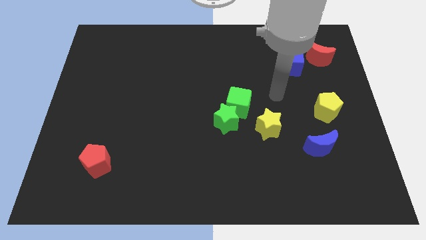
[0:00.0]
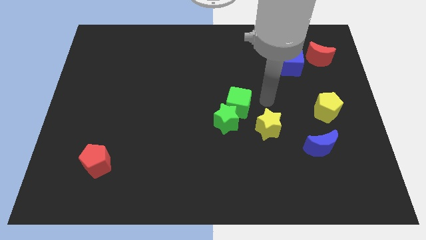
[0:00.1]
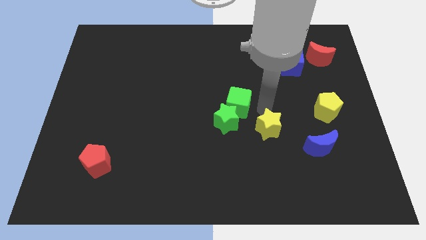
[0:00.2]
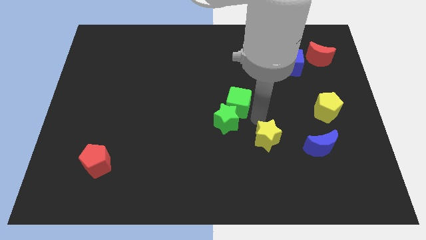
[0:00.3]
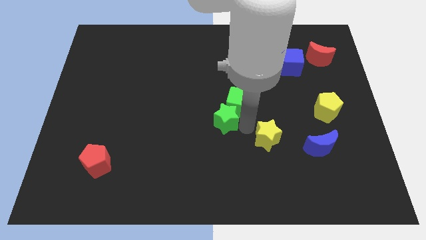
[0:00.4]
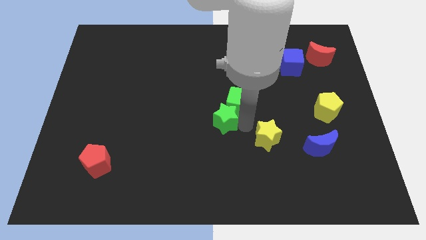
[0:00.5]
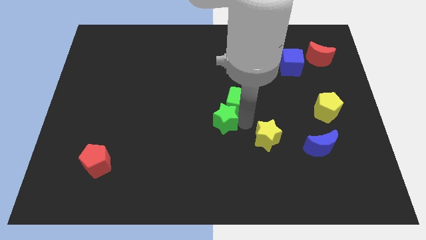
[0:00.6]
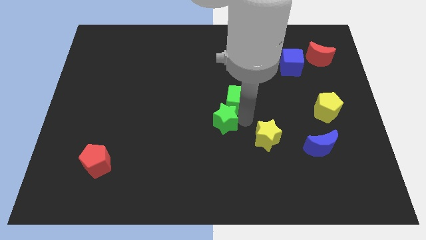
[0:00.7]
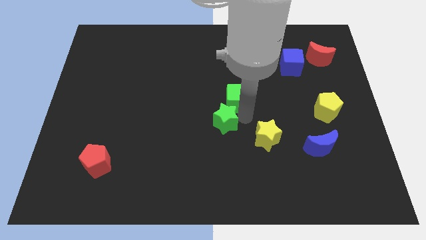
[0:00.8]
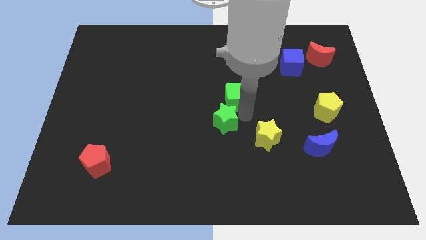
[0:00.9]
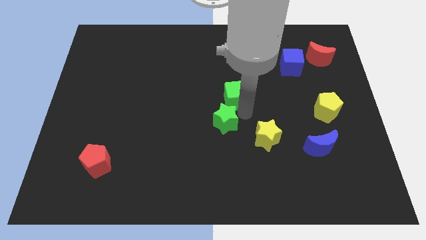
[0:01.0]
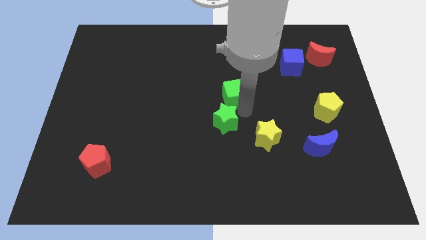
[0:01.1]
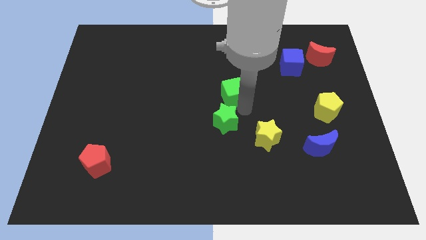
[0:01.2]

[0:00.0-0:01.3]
pull the green cube apart from the green star and yellow star

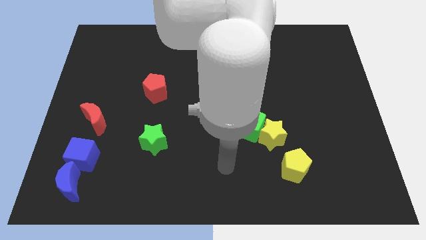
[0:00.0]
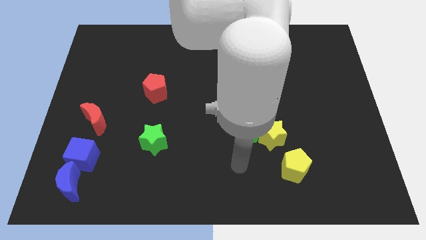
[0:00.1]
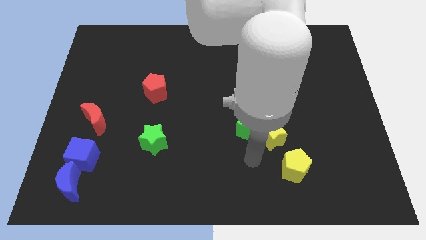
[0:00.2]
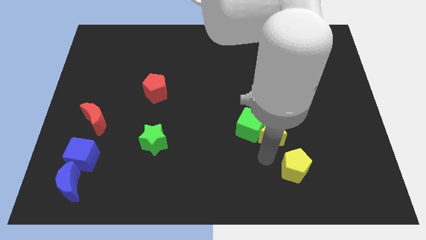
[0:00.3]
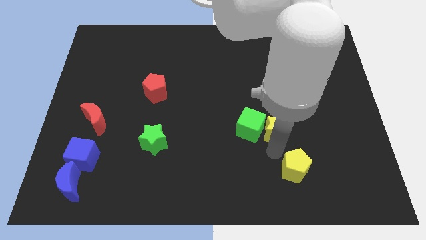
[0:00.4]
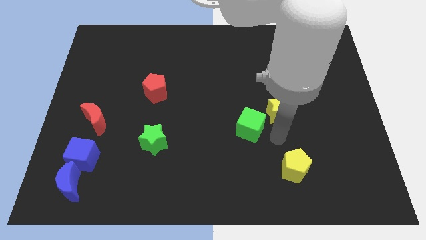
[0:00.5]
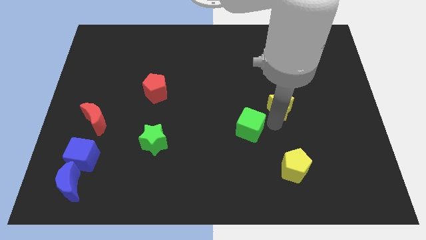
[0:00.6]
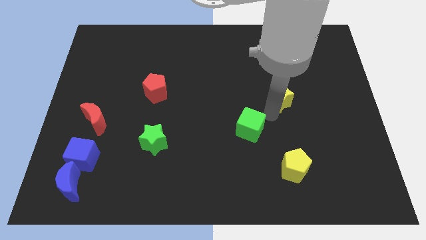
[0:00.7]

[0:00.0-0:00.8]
separate the green cube from the yellow star

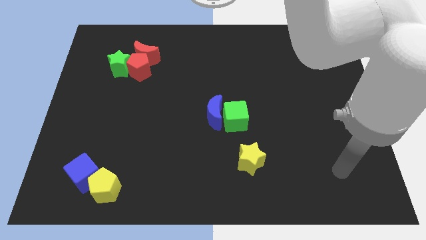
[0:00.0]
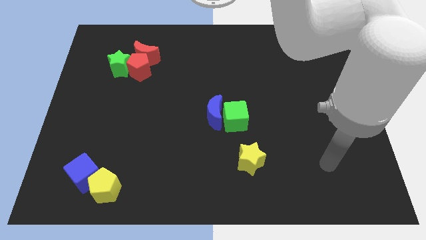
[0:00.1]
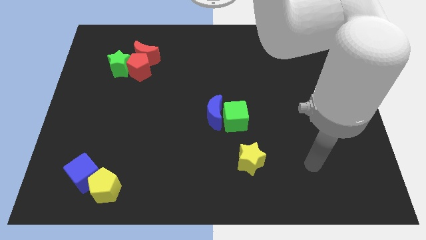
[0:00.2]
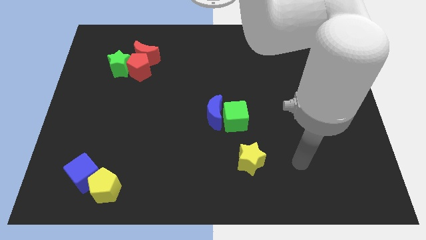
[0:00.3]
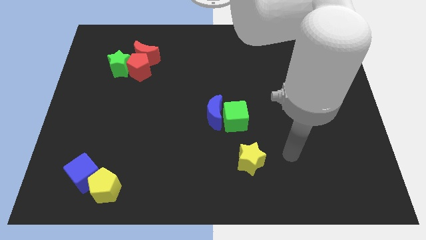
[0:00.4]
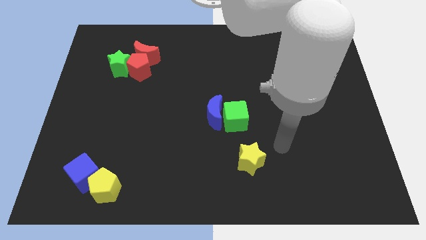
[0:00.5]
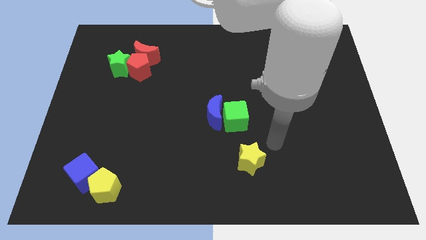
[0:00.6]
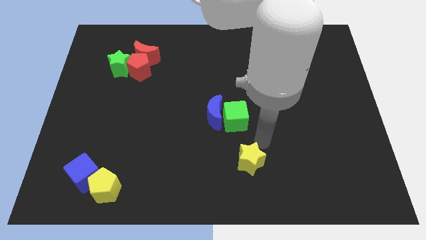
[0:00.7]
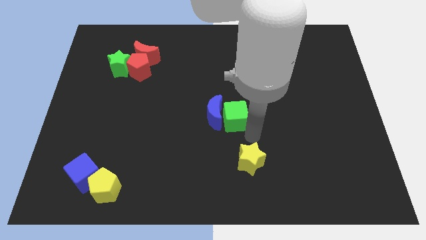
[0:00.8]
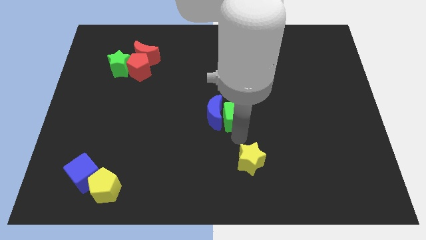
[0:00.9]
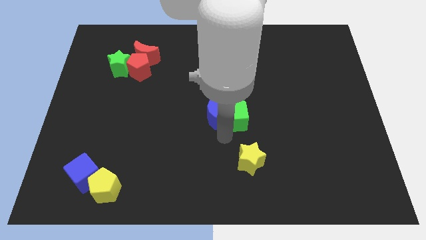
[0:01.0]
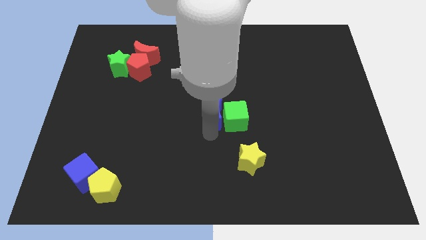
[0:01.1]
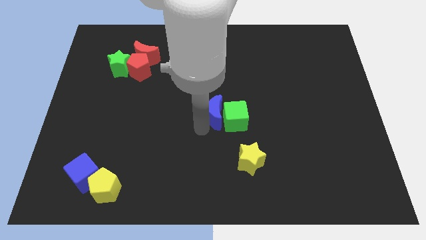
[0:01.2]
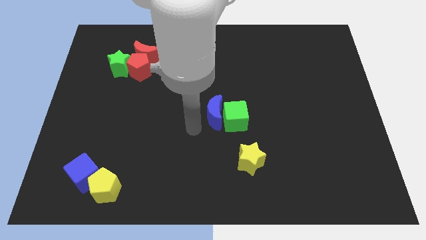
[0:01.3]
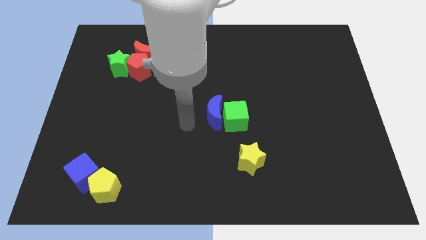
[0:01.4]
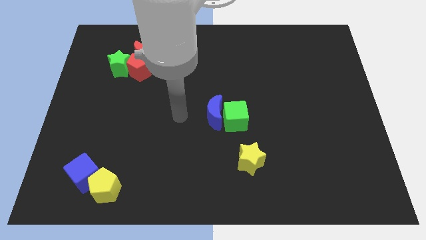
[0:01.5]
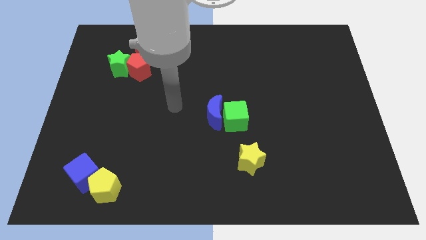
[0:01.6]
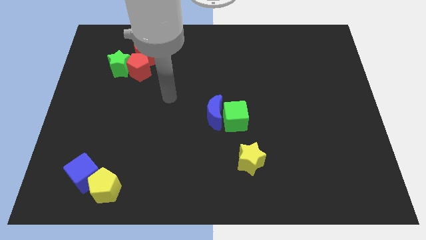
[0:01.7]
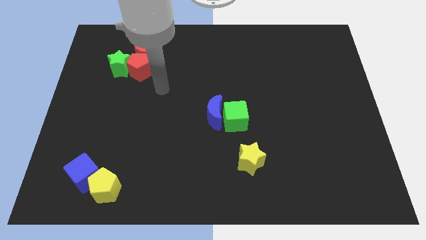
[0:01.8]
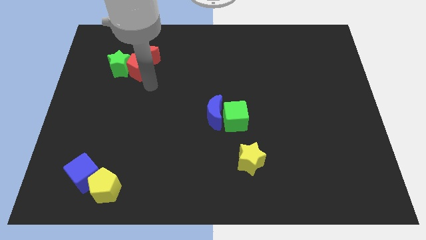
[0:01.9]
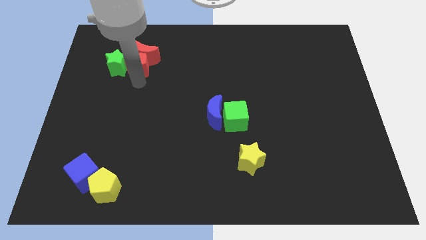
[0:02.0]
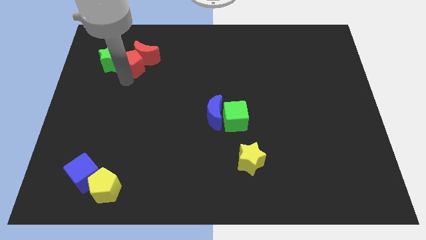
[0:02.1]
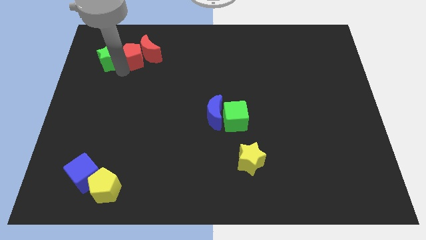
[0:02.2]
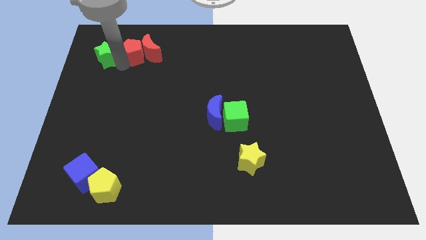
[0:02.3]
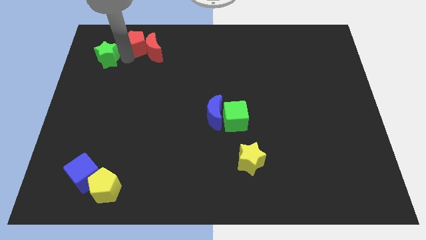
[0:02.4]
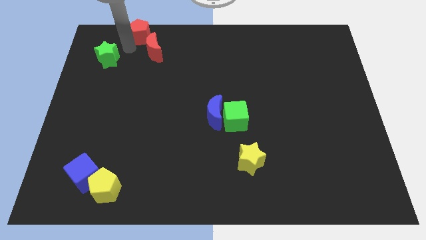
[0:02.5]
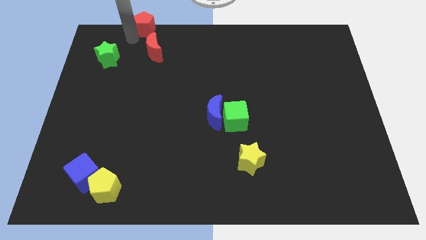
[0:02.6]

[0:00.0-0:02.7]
pull the red pentagon apart from the red moon and green star

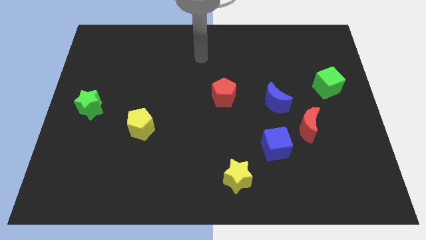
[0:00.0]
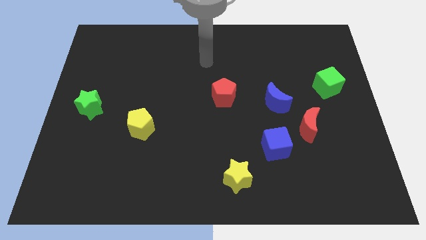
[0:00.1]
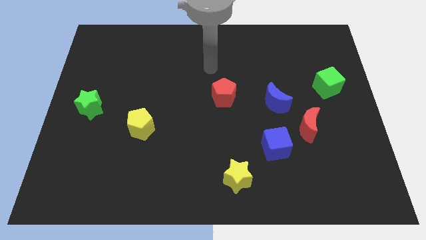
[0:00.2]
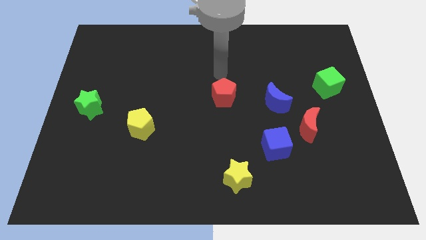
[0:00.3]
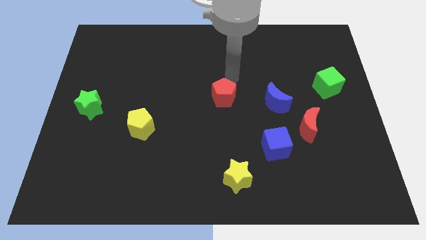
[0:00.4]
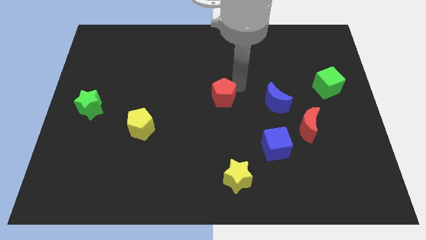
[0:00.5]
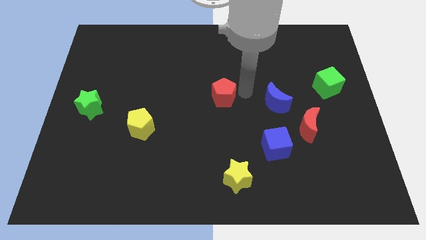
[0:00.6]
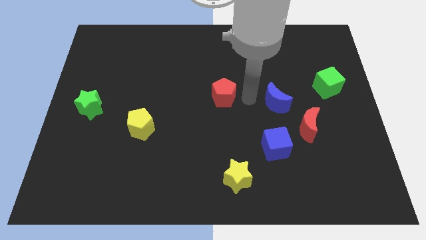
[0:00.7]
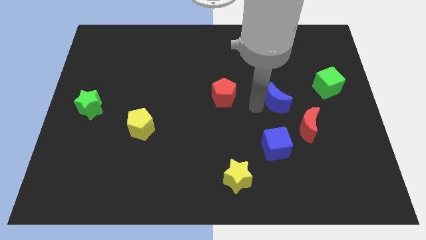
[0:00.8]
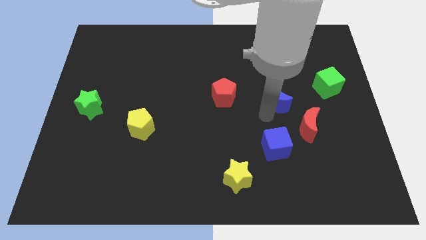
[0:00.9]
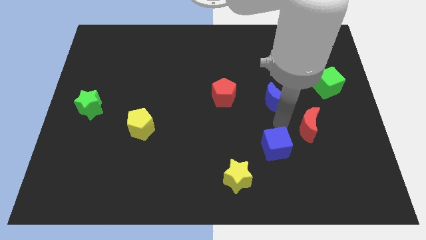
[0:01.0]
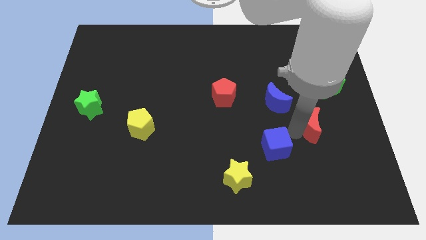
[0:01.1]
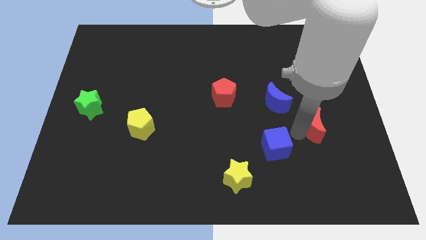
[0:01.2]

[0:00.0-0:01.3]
separate the blue cube from the red moon

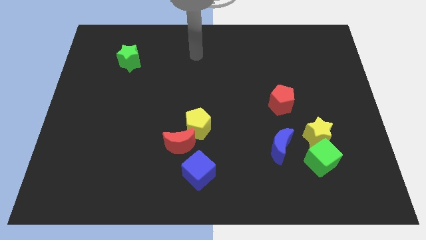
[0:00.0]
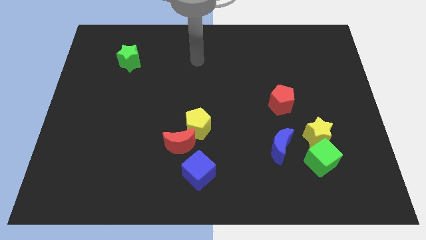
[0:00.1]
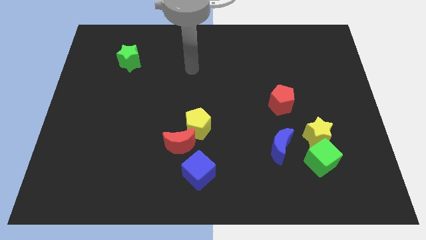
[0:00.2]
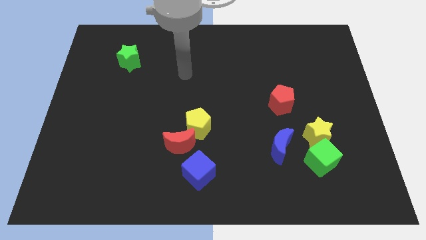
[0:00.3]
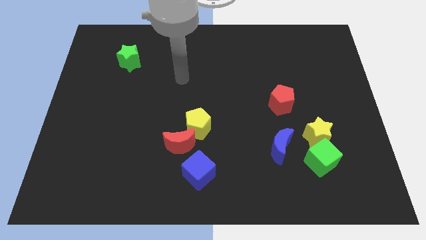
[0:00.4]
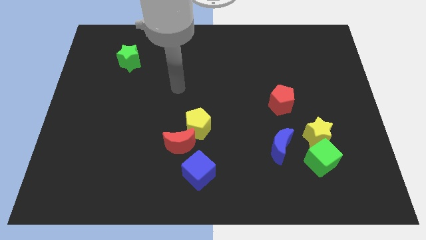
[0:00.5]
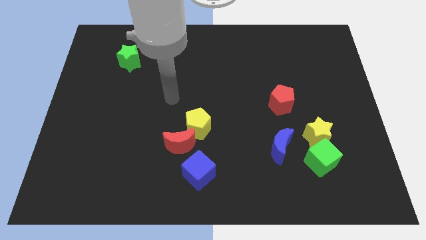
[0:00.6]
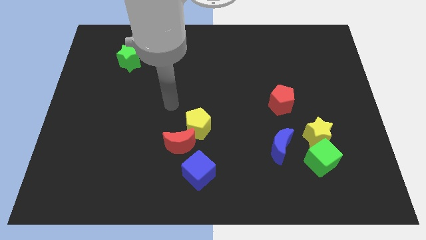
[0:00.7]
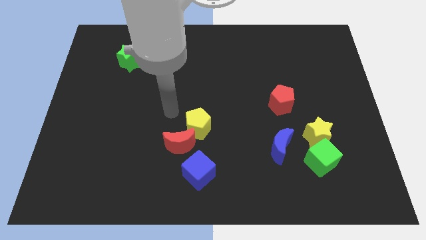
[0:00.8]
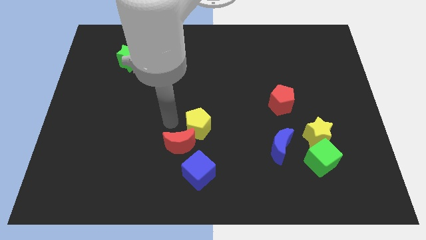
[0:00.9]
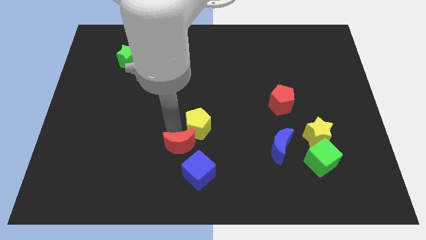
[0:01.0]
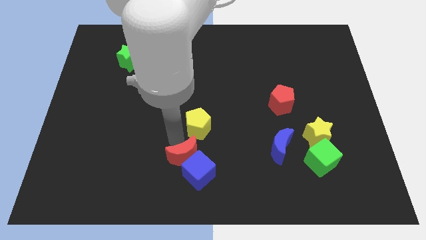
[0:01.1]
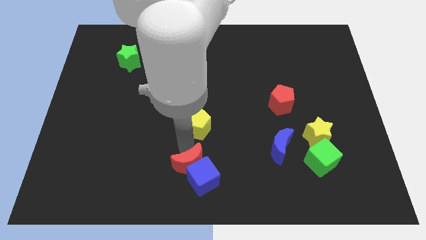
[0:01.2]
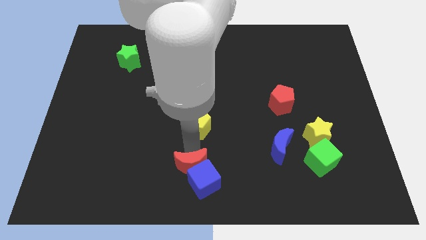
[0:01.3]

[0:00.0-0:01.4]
move the yellow pentagon away from the red moon

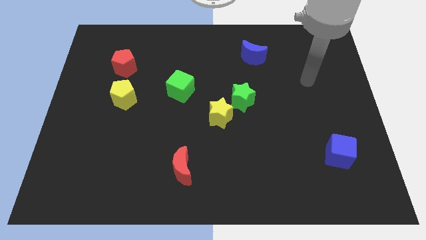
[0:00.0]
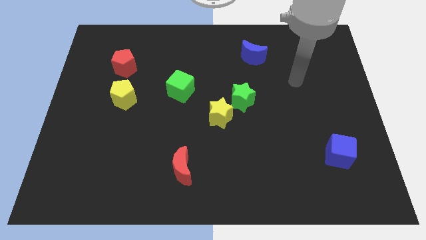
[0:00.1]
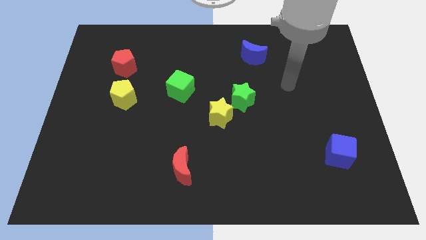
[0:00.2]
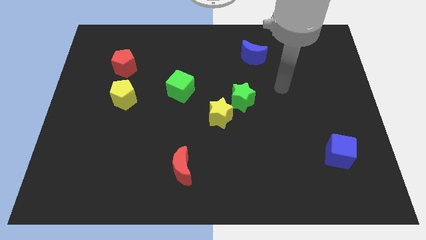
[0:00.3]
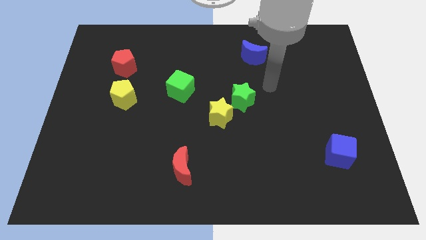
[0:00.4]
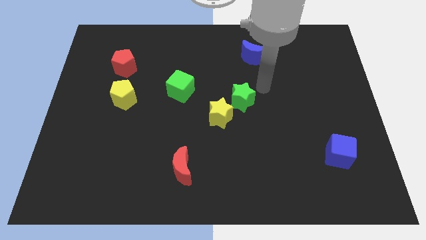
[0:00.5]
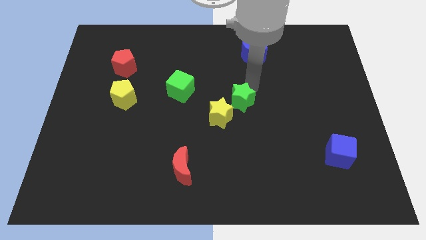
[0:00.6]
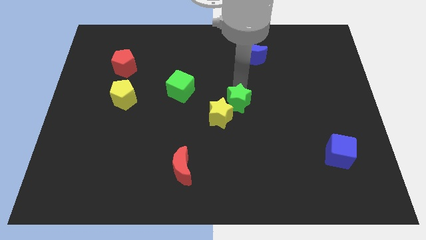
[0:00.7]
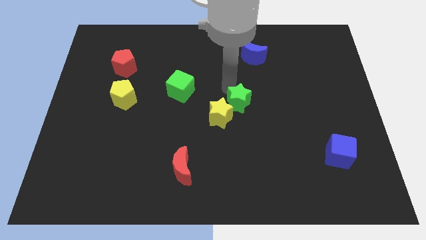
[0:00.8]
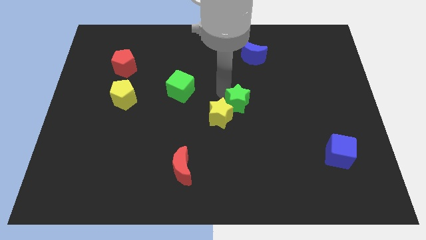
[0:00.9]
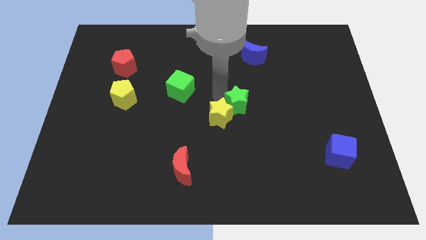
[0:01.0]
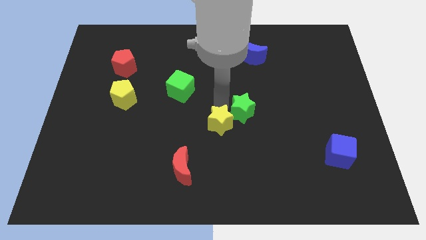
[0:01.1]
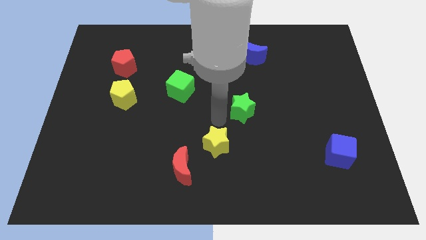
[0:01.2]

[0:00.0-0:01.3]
pull the green star apart from the yellow star

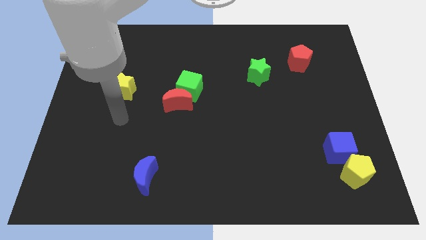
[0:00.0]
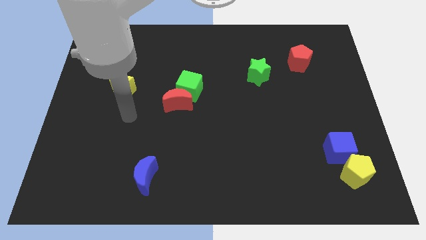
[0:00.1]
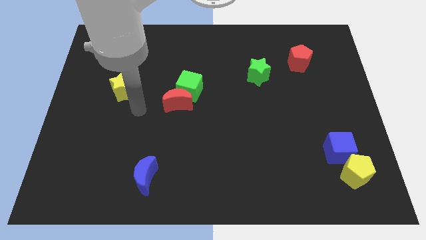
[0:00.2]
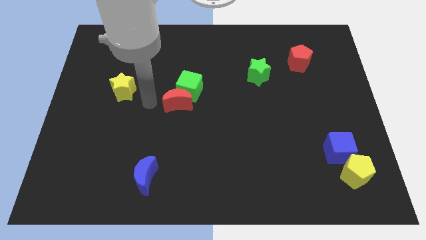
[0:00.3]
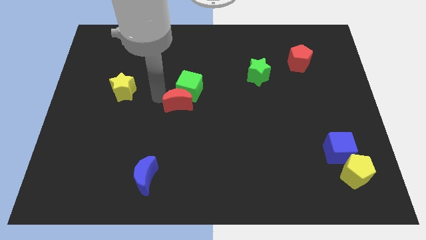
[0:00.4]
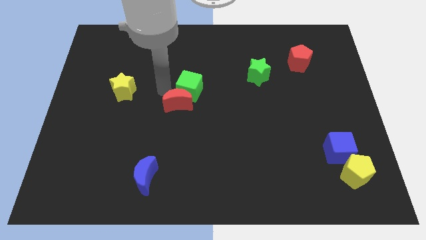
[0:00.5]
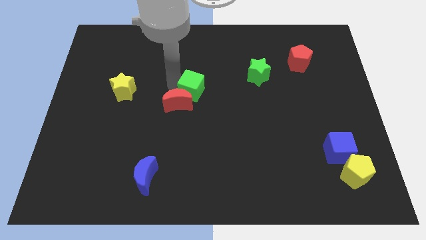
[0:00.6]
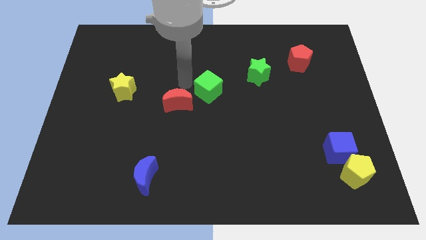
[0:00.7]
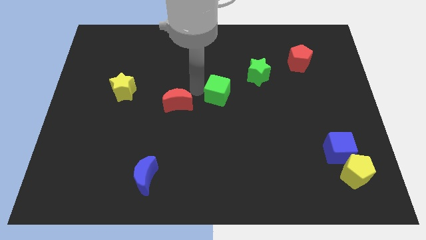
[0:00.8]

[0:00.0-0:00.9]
separate the red moon from the green cube
